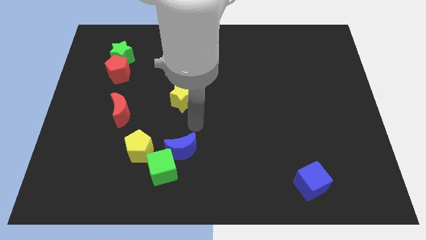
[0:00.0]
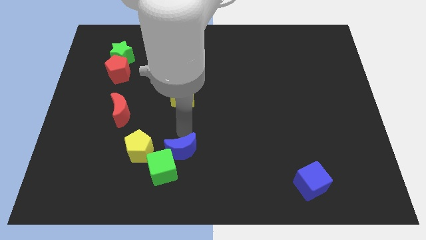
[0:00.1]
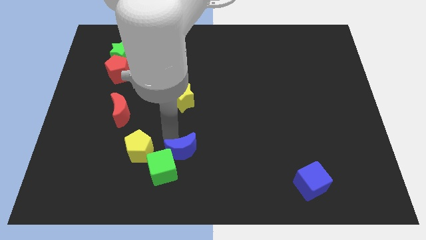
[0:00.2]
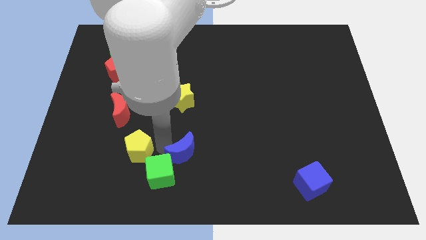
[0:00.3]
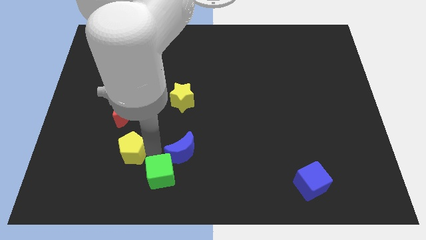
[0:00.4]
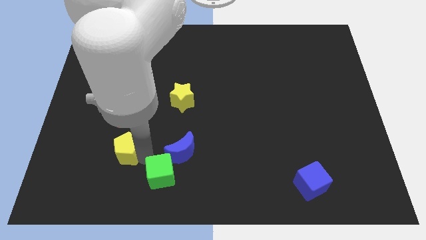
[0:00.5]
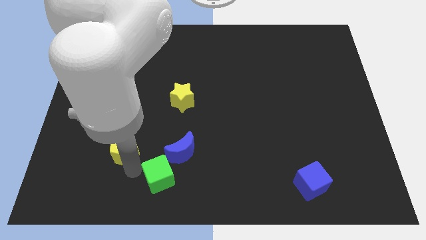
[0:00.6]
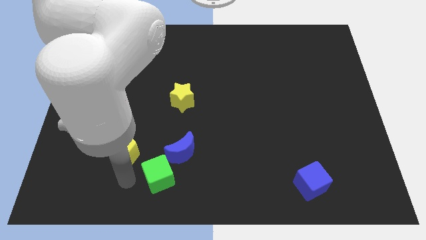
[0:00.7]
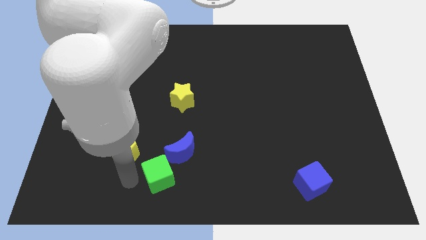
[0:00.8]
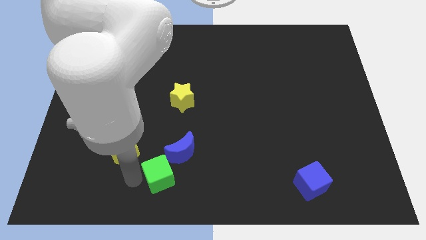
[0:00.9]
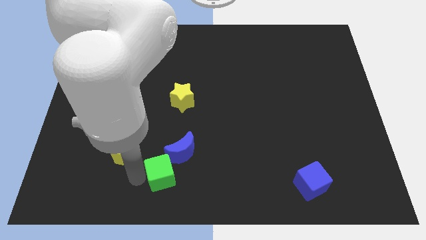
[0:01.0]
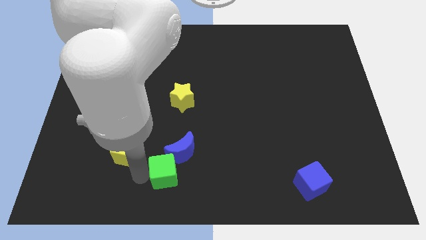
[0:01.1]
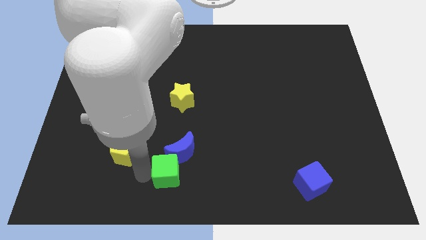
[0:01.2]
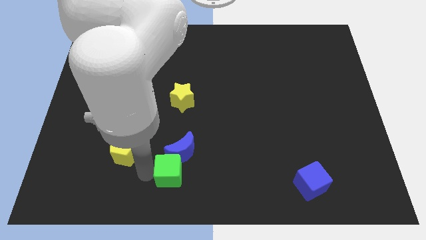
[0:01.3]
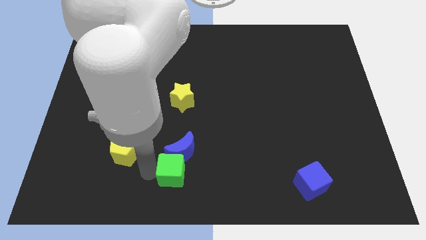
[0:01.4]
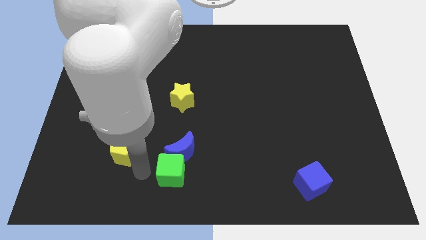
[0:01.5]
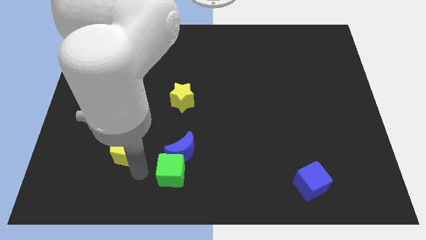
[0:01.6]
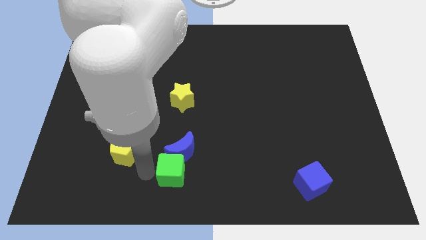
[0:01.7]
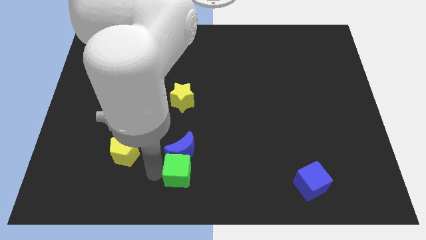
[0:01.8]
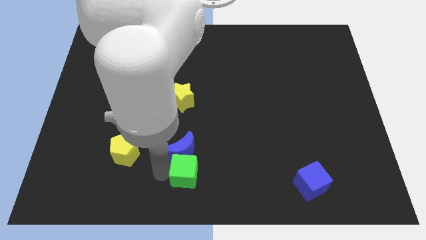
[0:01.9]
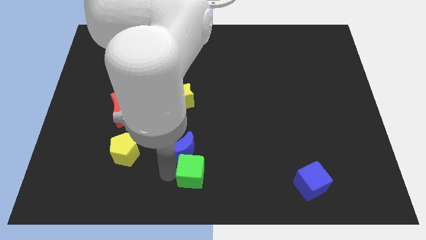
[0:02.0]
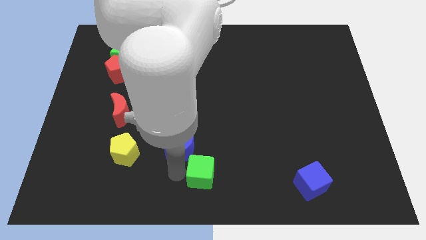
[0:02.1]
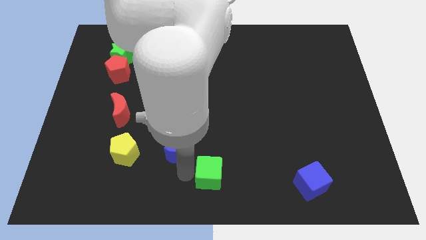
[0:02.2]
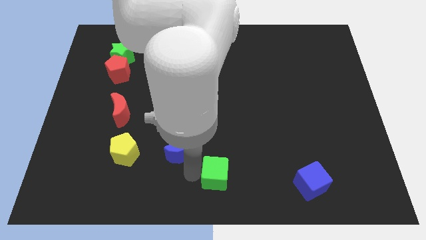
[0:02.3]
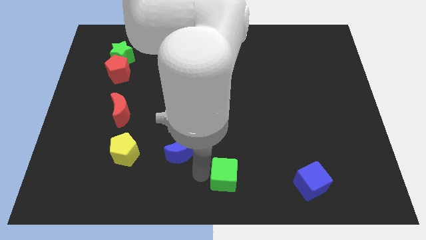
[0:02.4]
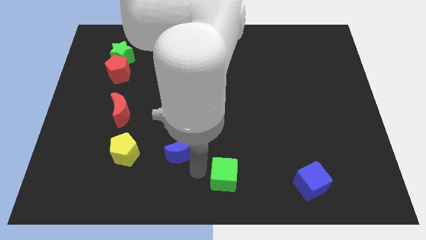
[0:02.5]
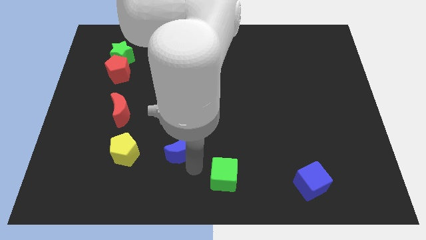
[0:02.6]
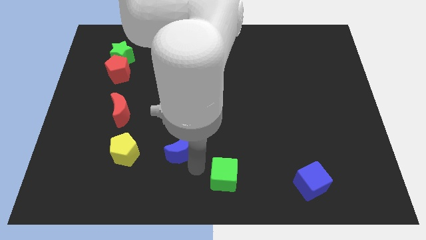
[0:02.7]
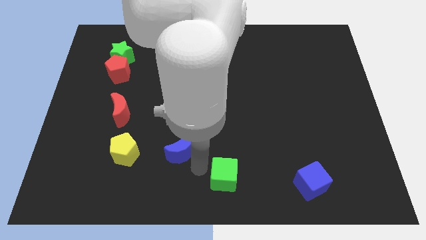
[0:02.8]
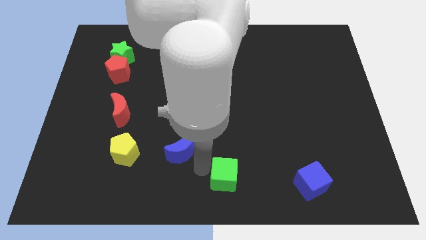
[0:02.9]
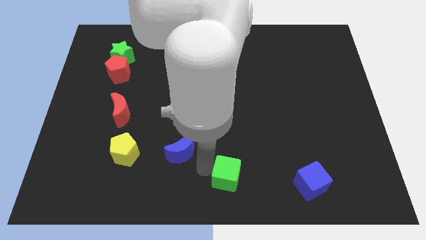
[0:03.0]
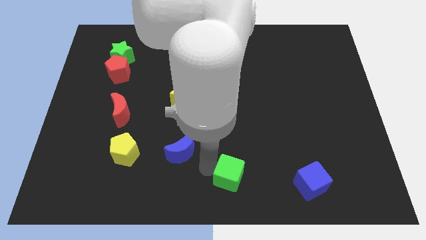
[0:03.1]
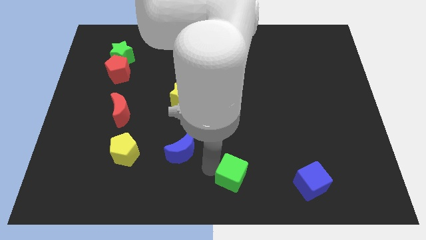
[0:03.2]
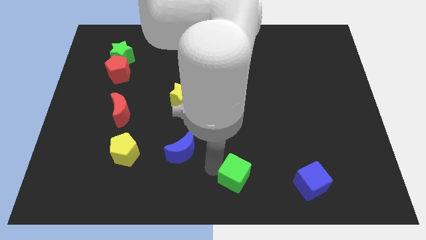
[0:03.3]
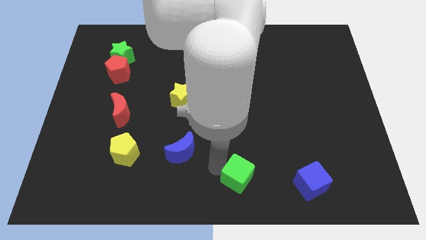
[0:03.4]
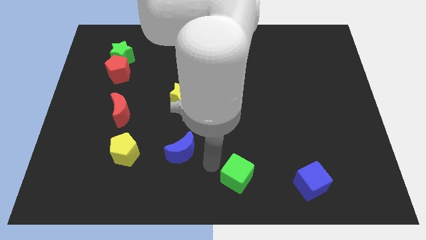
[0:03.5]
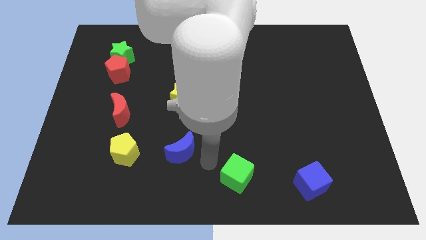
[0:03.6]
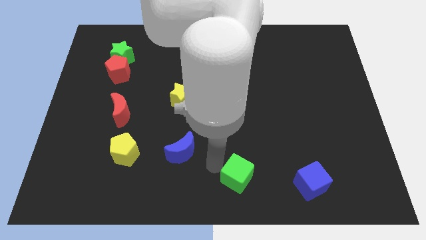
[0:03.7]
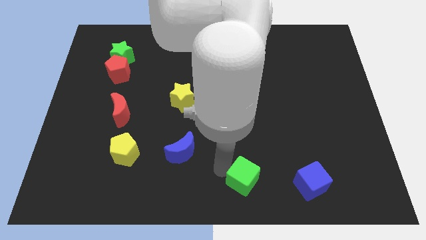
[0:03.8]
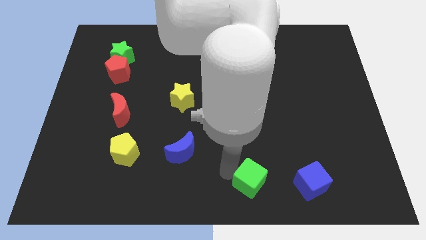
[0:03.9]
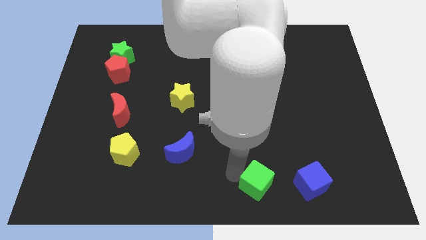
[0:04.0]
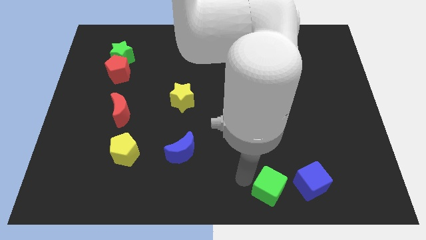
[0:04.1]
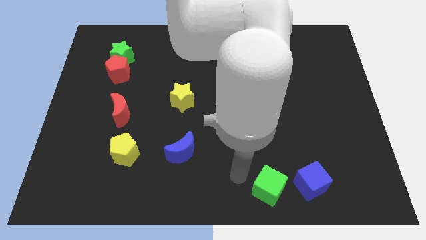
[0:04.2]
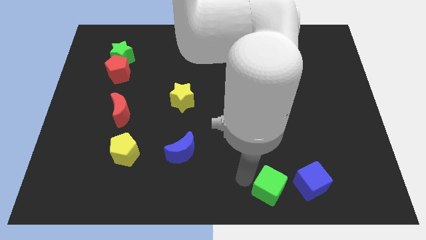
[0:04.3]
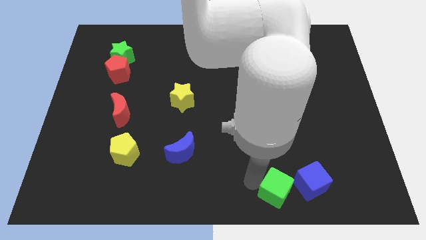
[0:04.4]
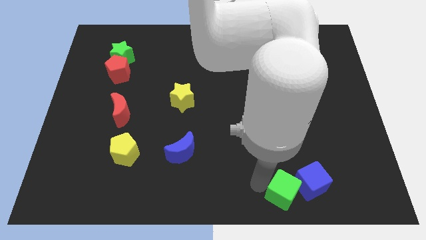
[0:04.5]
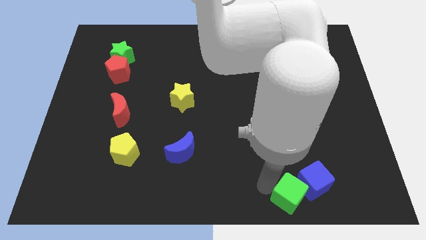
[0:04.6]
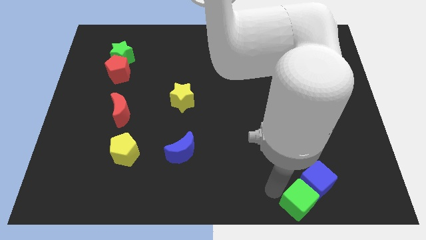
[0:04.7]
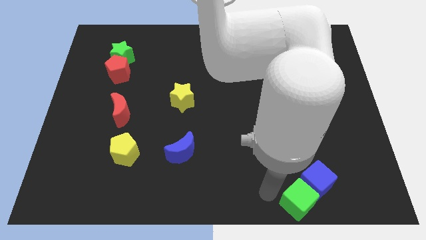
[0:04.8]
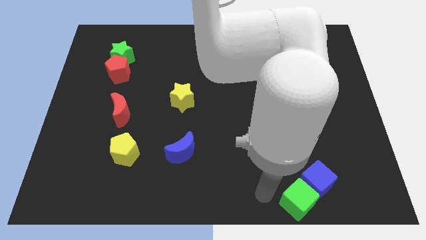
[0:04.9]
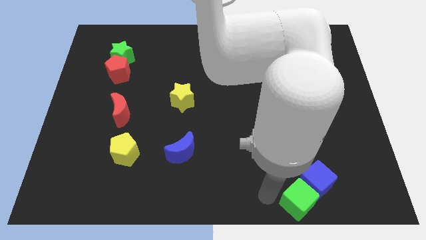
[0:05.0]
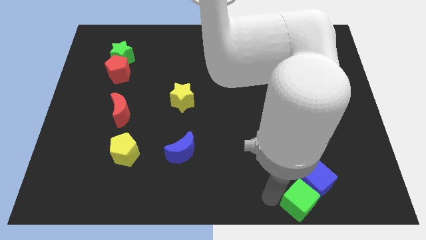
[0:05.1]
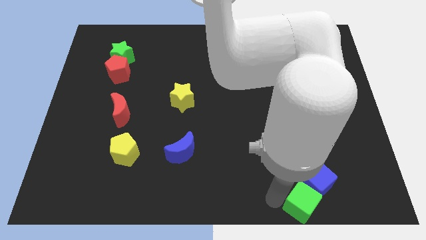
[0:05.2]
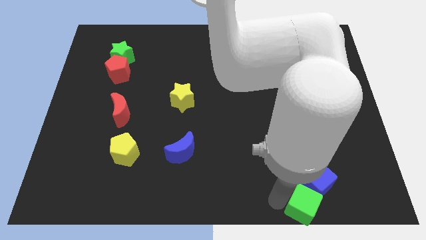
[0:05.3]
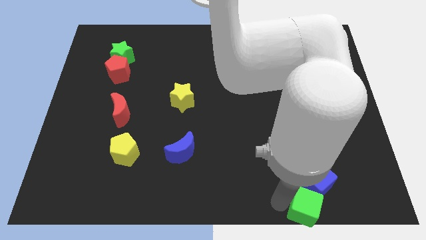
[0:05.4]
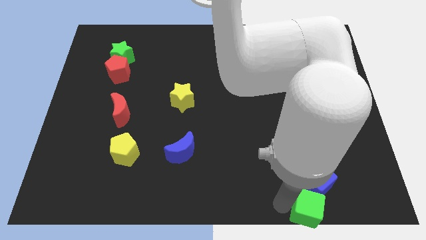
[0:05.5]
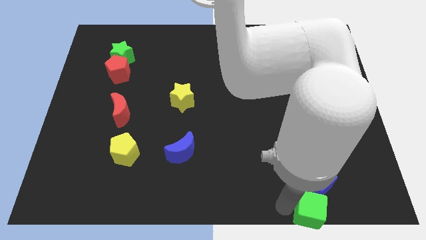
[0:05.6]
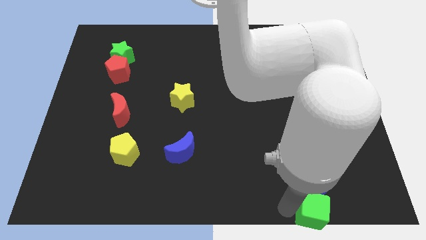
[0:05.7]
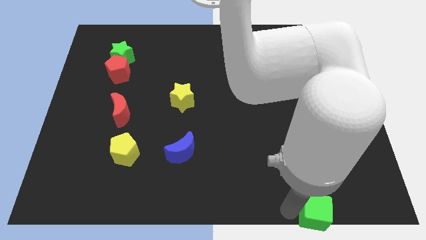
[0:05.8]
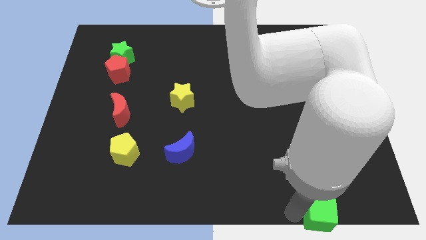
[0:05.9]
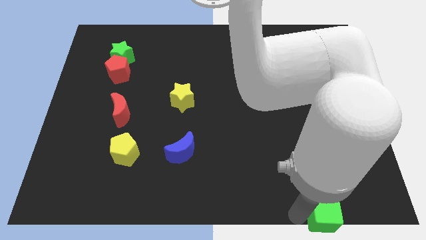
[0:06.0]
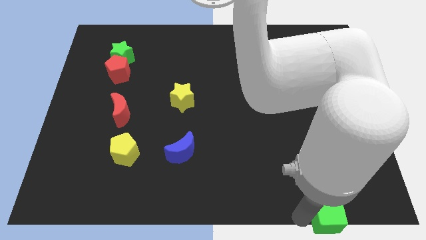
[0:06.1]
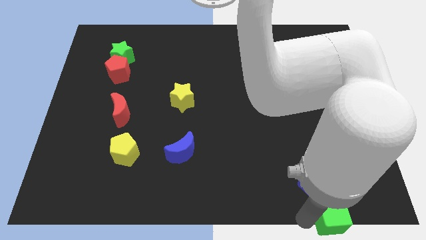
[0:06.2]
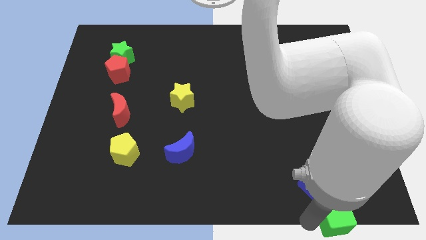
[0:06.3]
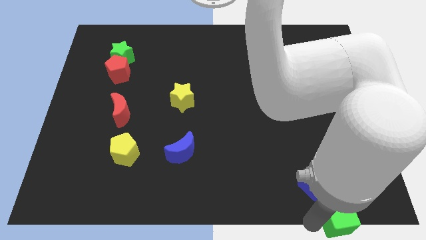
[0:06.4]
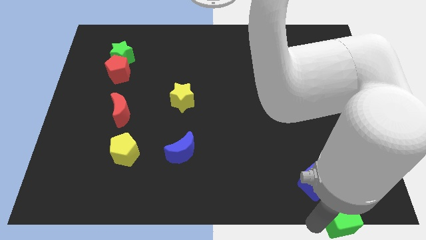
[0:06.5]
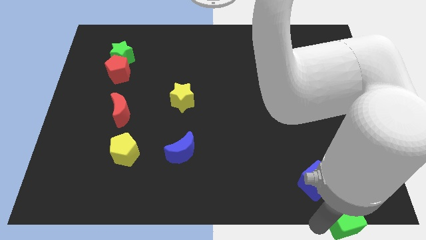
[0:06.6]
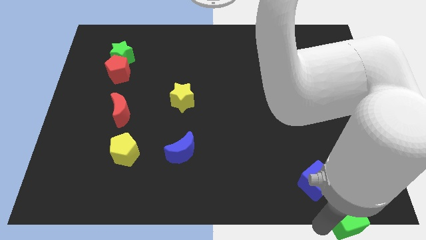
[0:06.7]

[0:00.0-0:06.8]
put the green cube to the bottom right corner
